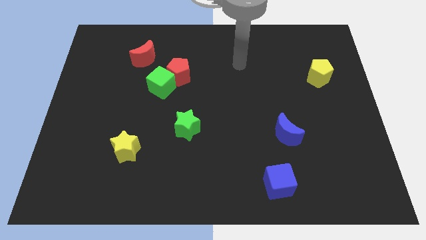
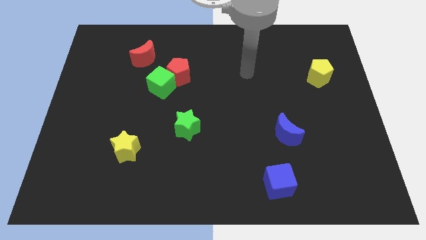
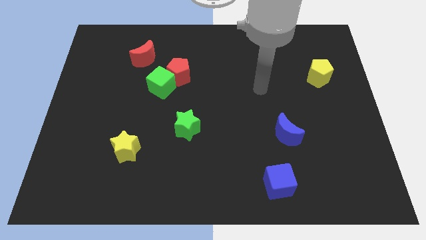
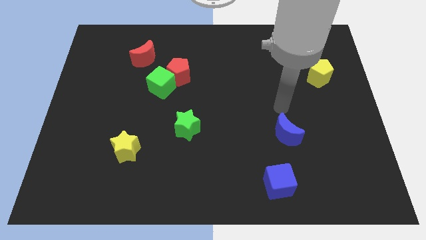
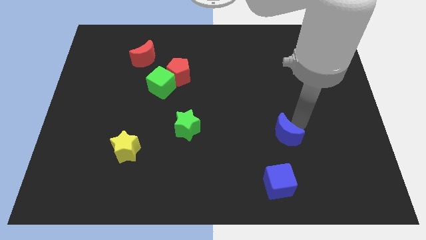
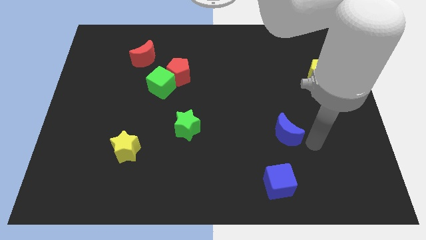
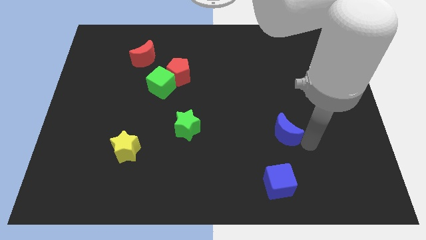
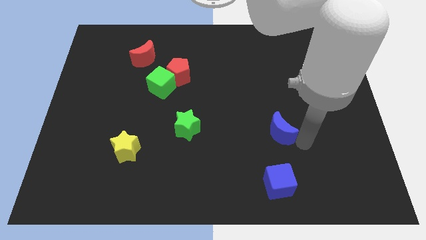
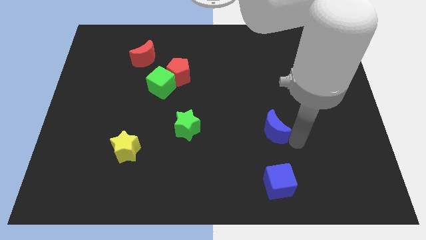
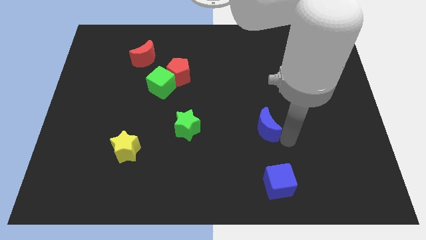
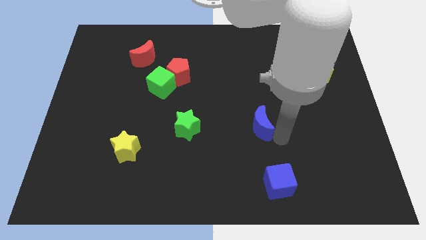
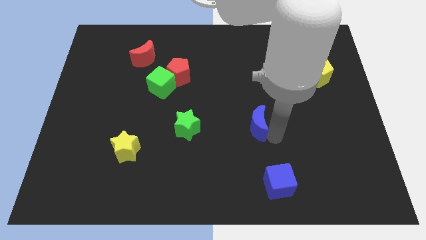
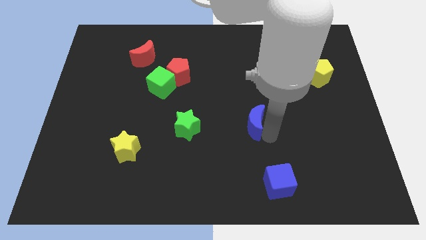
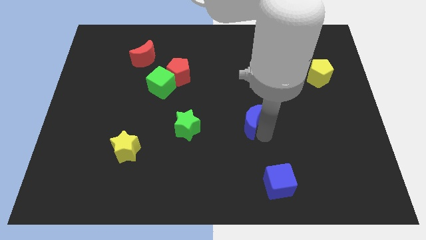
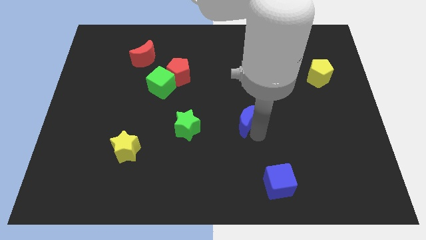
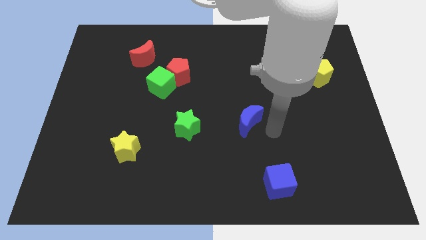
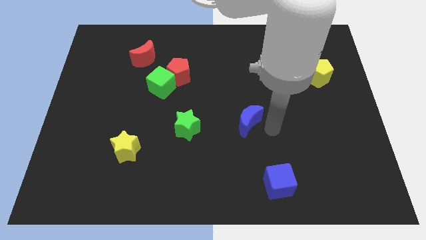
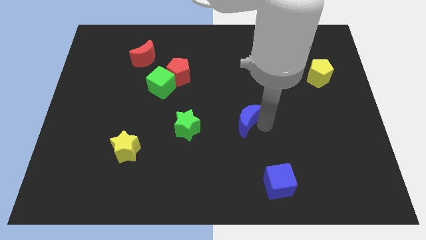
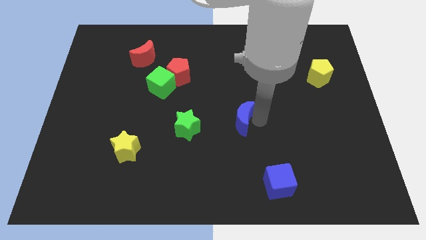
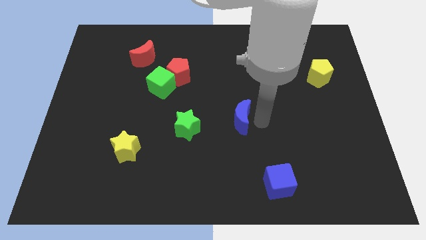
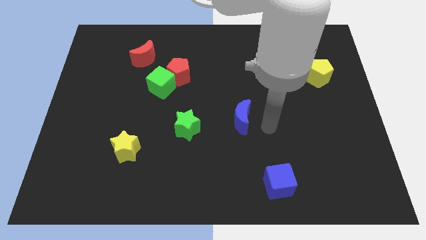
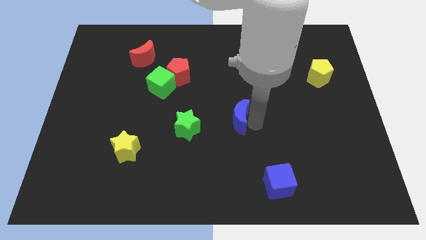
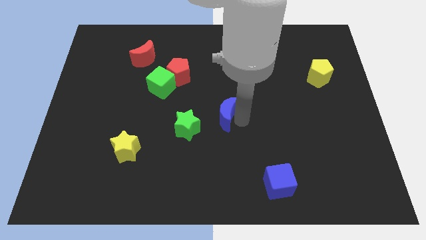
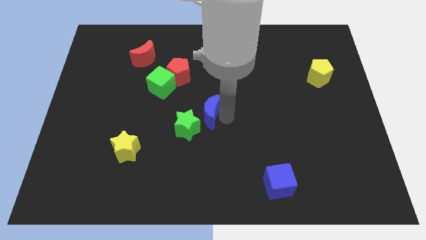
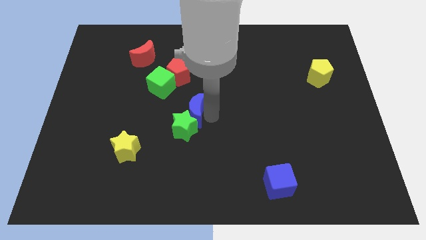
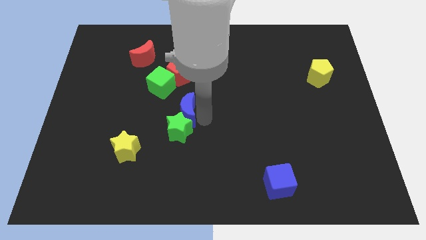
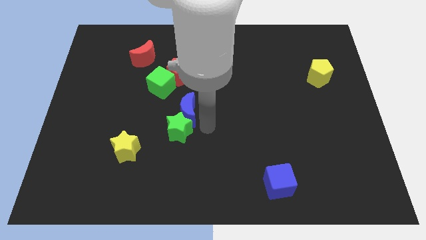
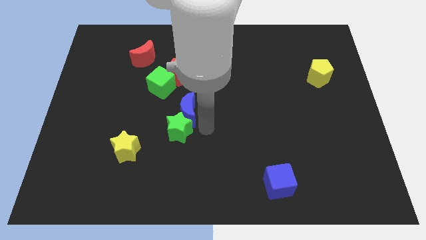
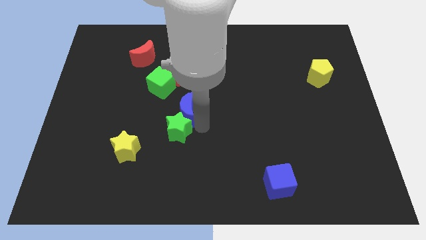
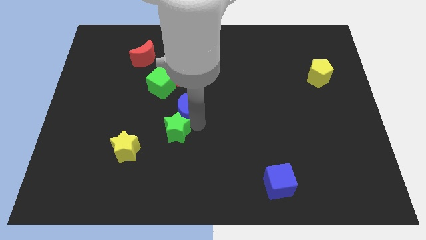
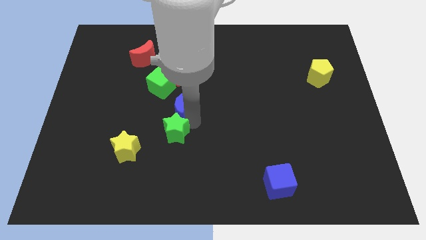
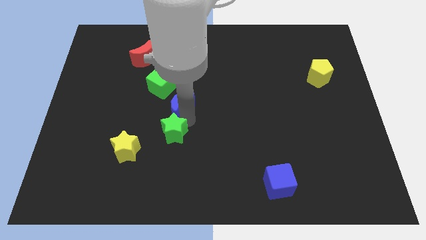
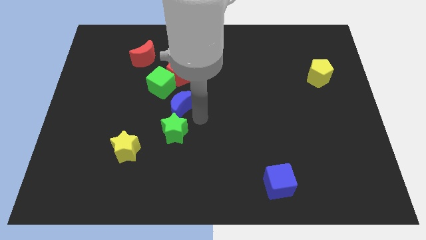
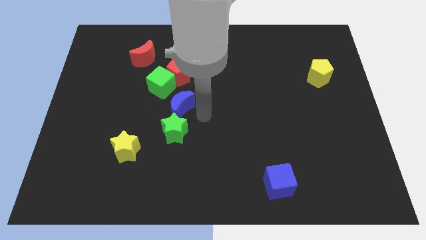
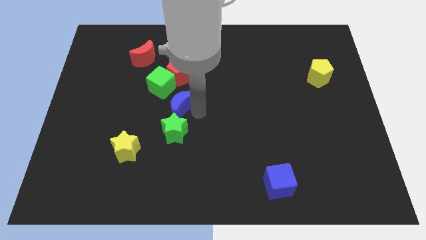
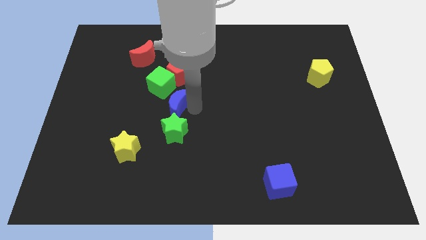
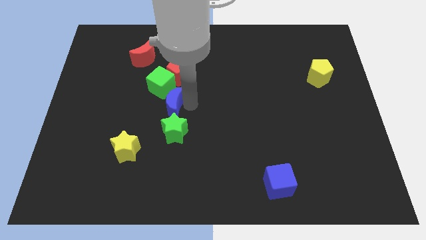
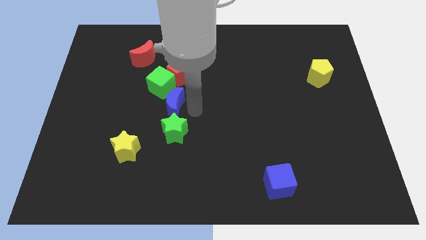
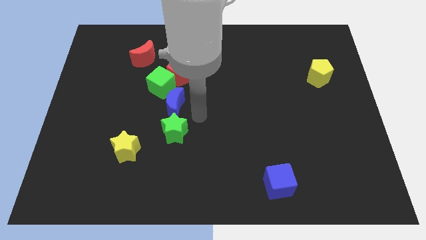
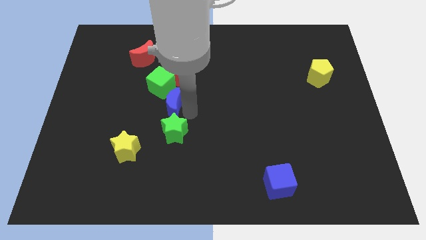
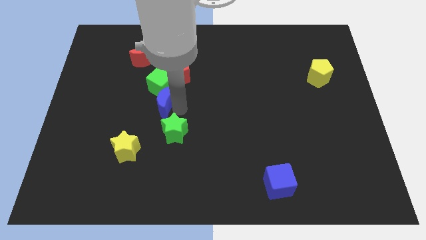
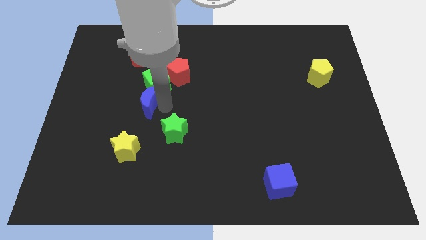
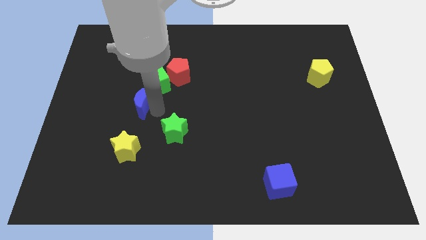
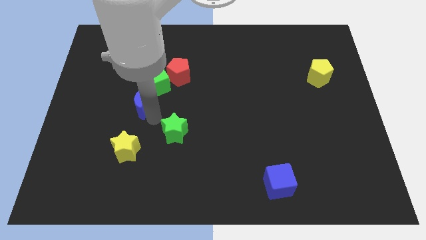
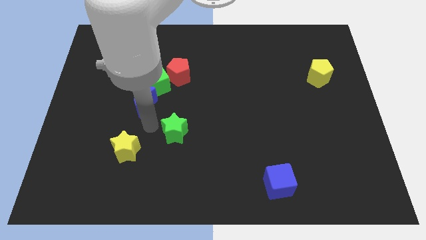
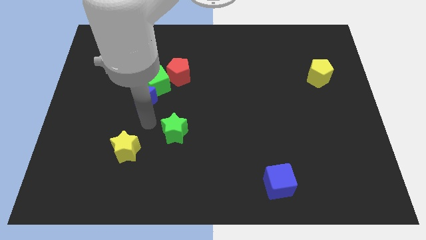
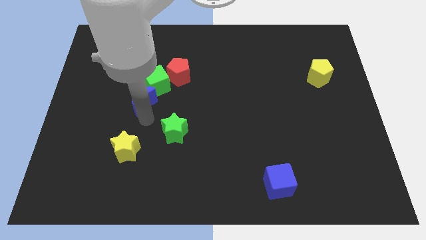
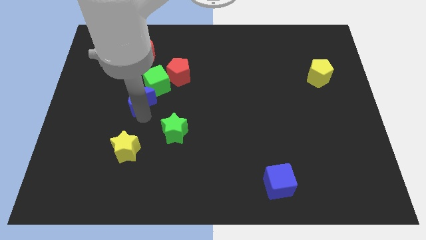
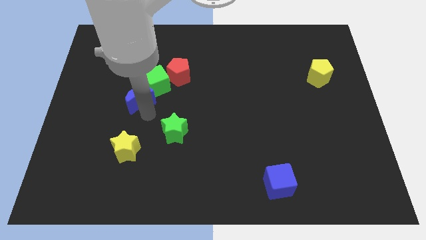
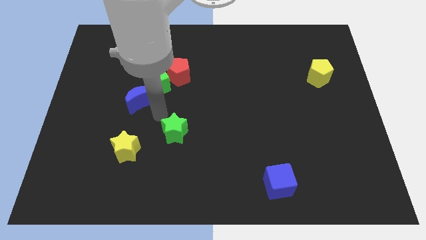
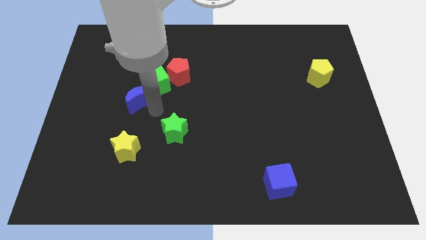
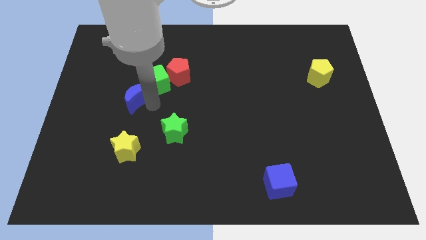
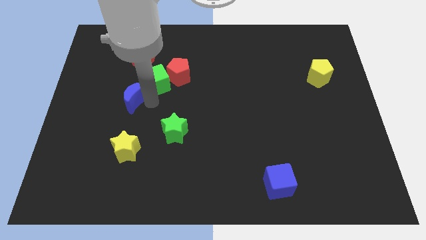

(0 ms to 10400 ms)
push the blue moon left of the green cube

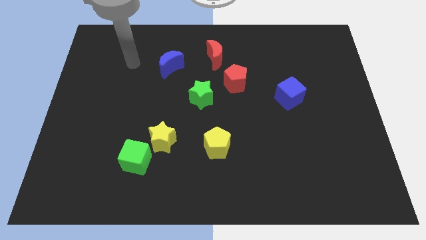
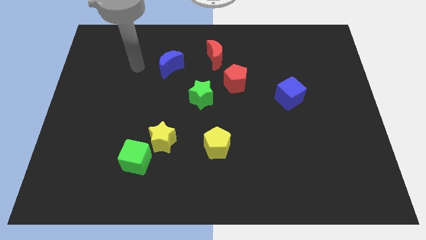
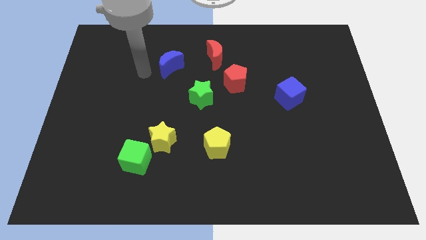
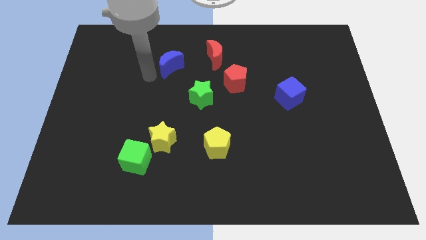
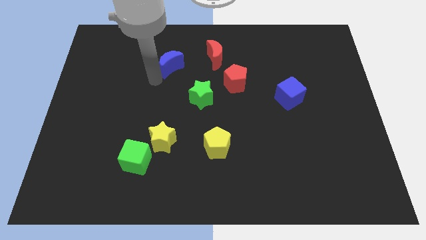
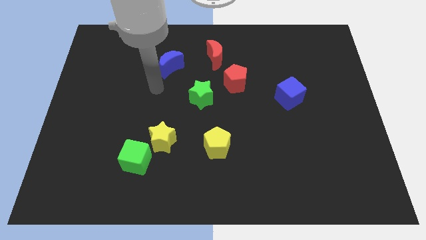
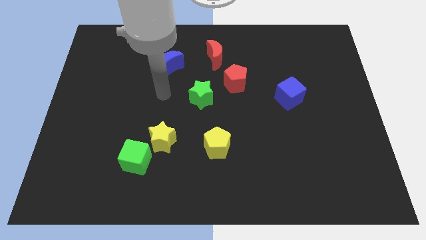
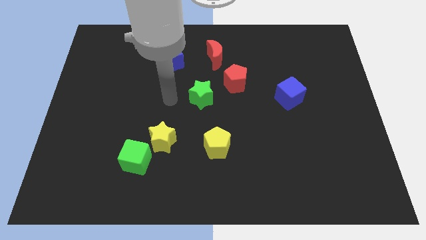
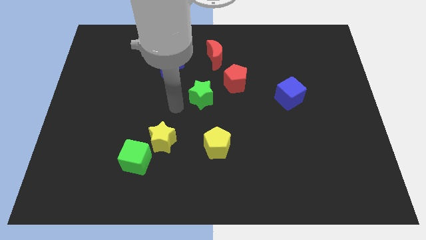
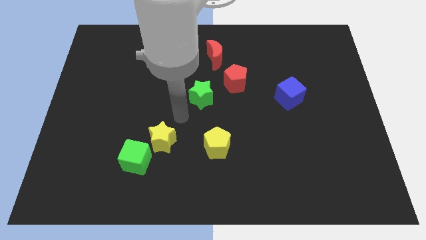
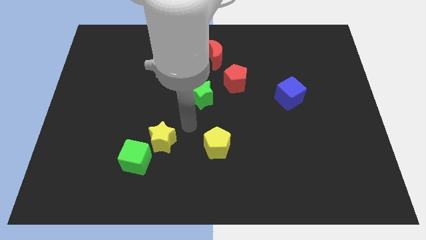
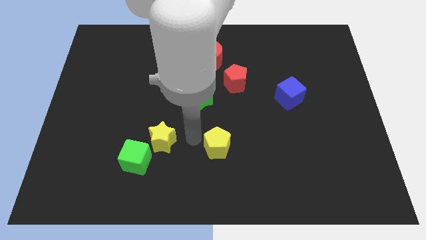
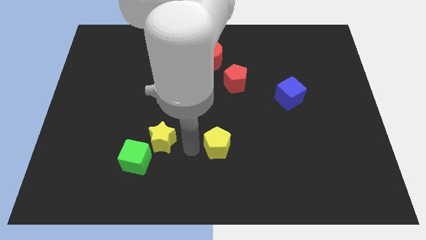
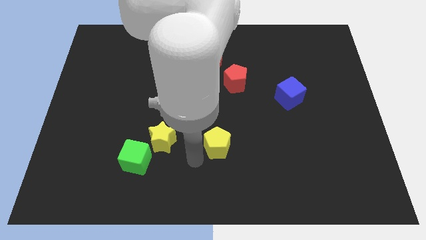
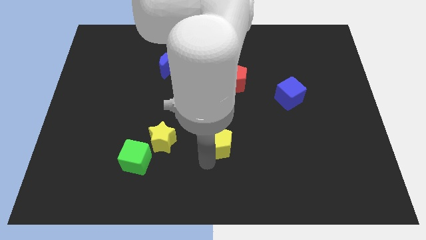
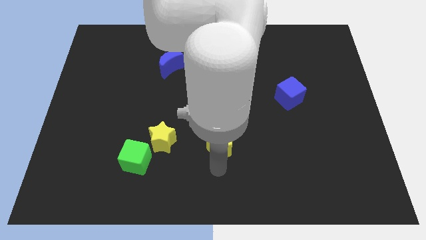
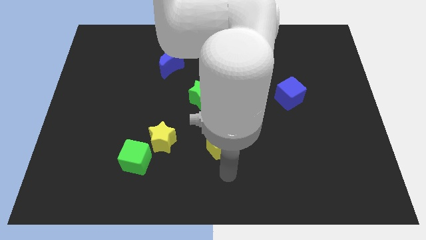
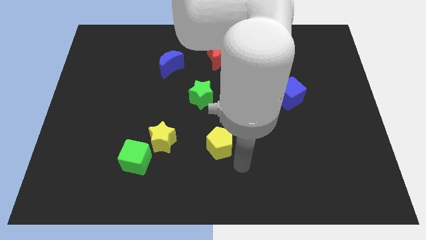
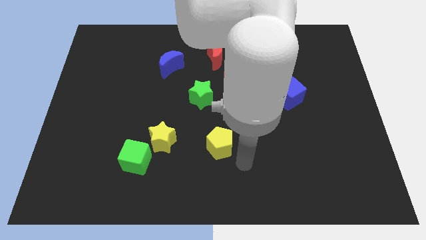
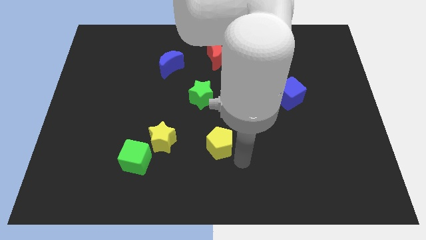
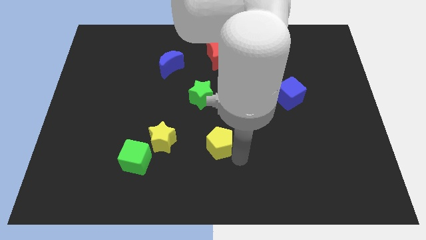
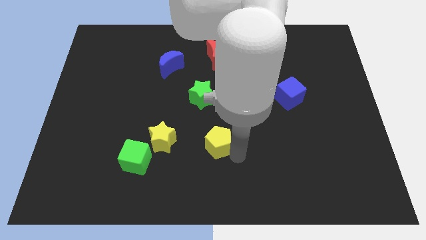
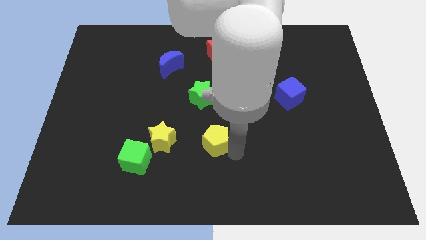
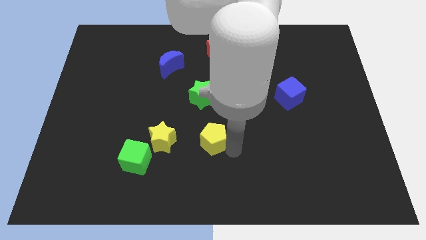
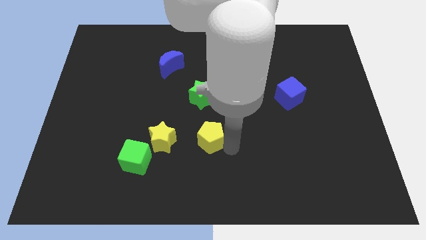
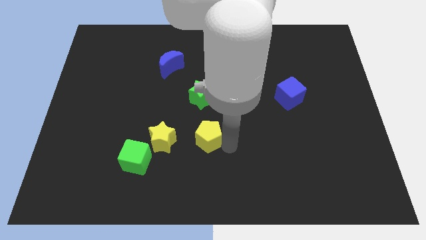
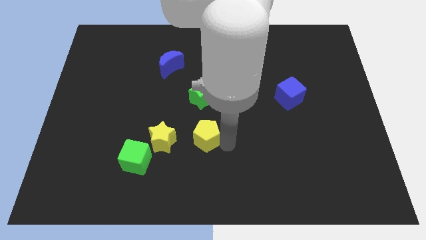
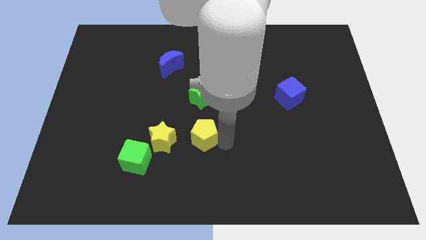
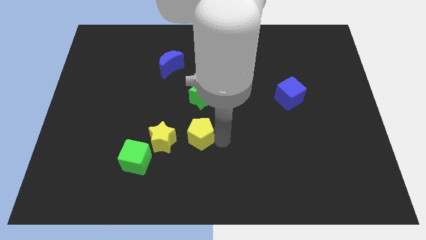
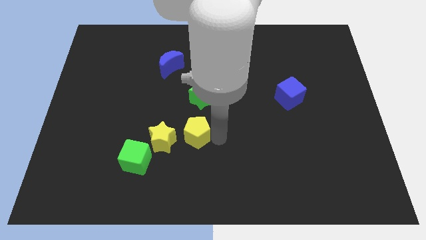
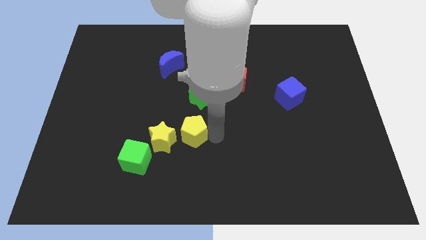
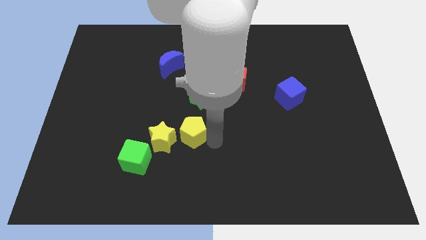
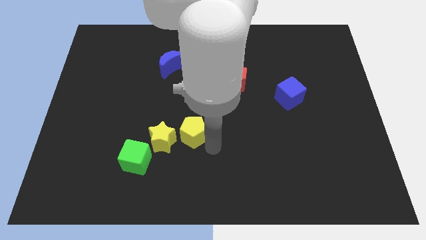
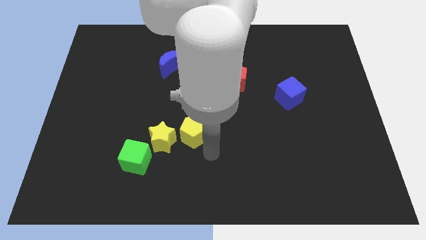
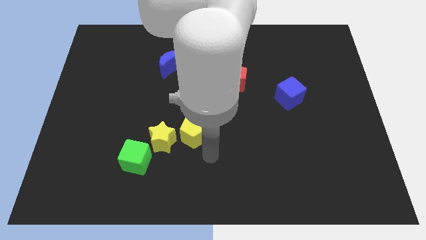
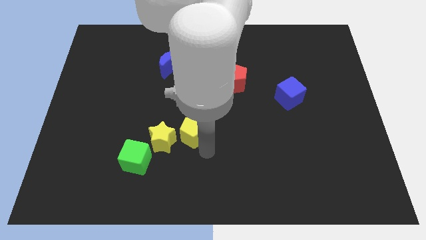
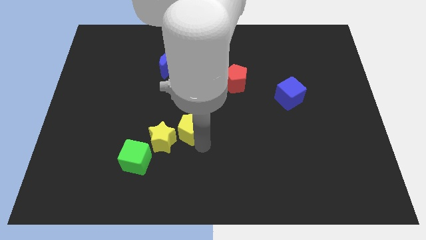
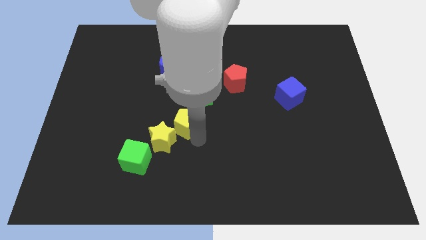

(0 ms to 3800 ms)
slide the yellow pentagon to the bottom left side of the green star
